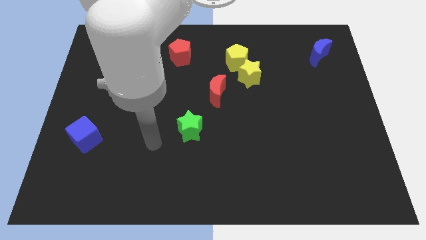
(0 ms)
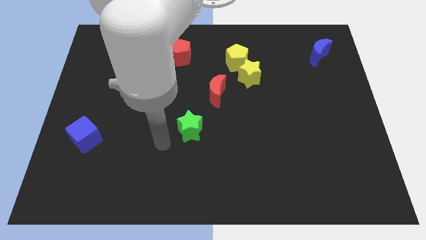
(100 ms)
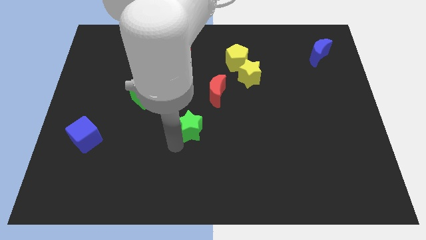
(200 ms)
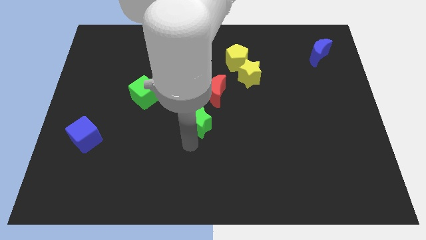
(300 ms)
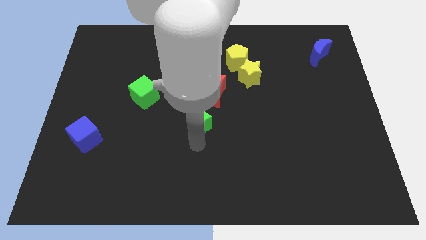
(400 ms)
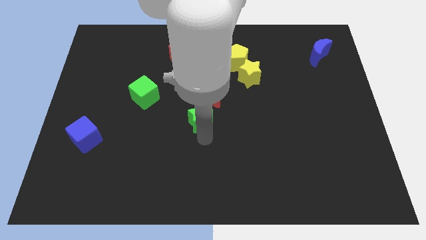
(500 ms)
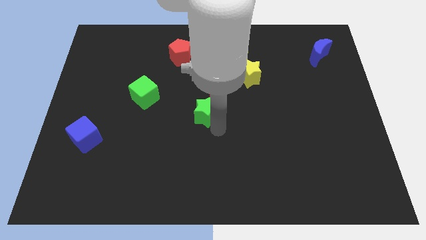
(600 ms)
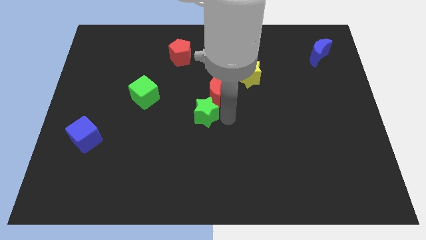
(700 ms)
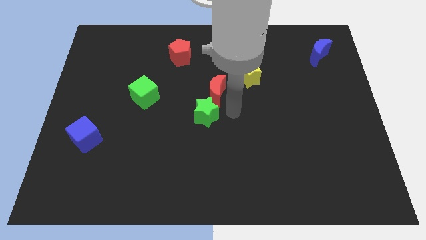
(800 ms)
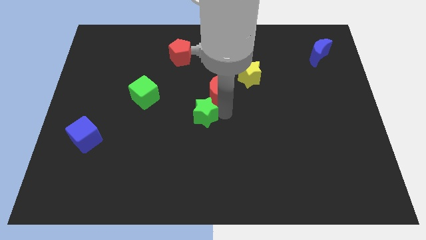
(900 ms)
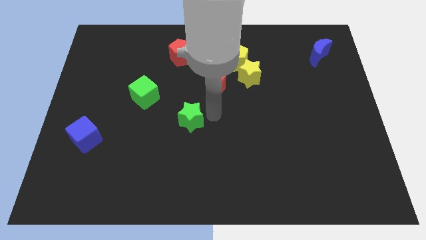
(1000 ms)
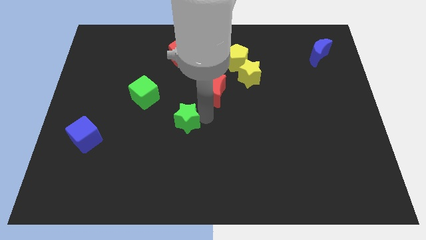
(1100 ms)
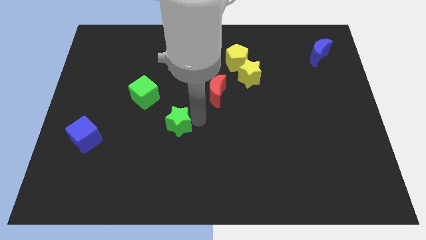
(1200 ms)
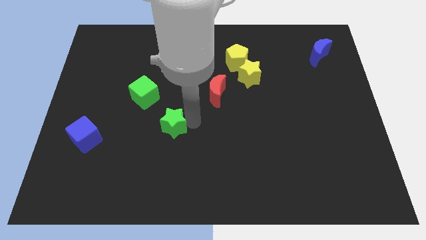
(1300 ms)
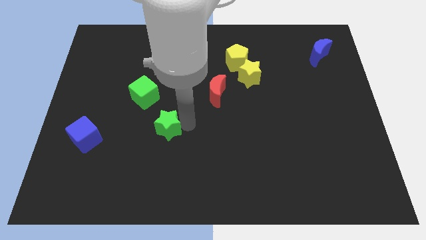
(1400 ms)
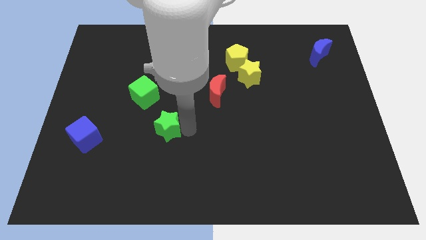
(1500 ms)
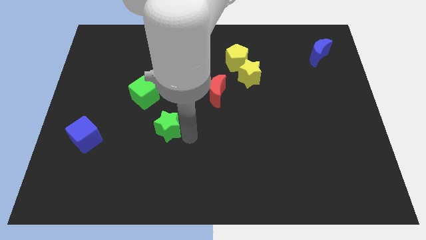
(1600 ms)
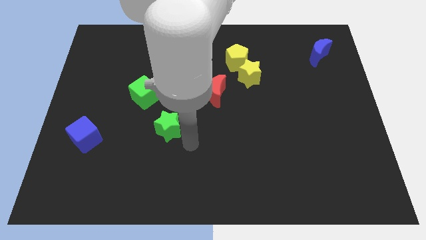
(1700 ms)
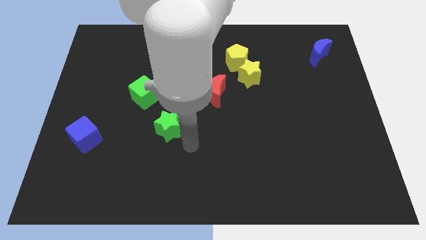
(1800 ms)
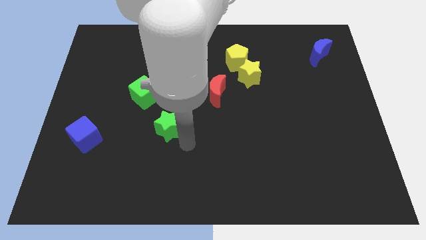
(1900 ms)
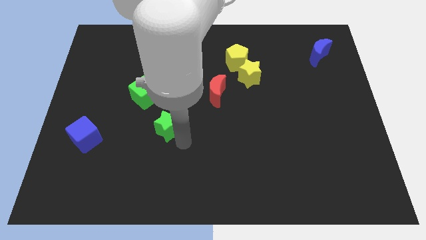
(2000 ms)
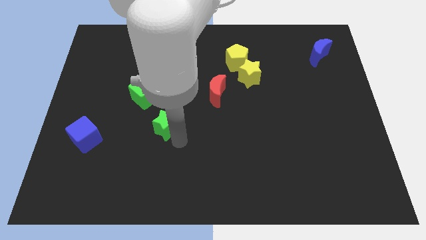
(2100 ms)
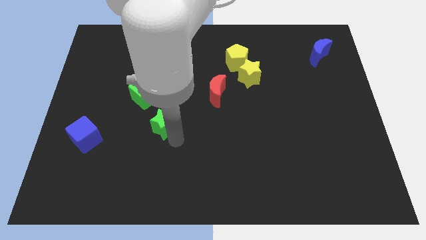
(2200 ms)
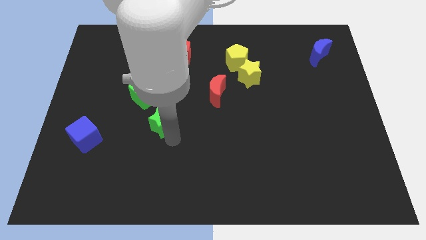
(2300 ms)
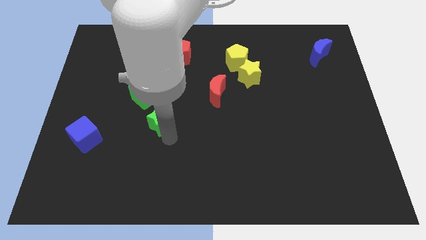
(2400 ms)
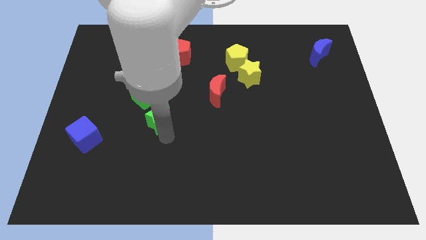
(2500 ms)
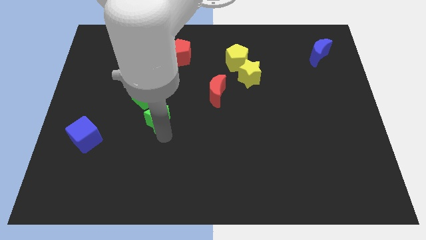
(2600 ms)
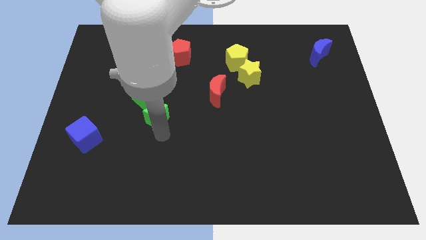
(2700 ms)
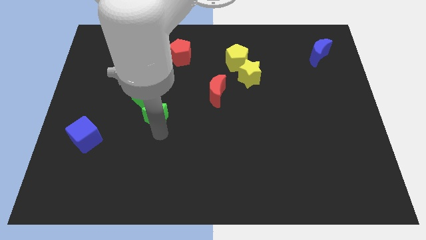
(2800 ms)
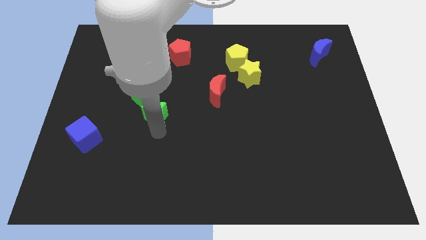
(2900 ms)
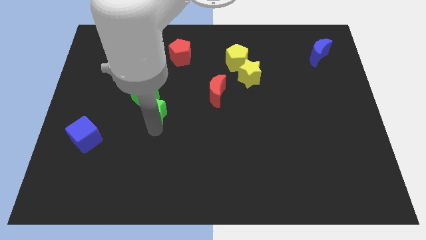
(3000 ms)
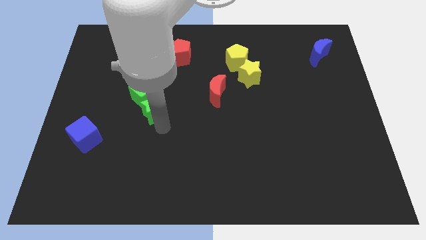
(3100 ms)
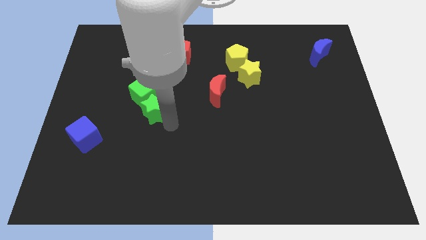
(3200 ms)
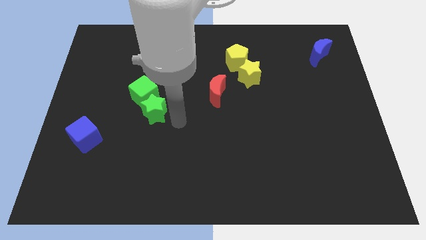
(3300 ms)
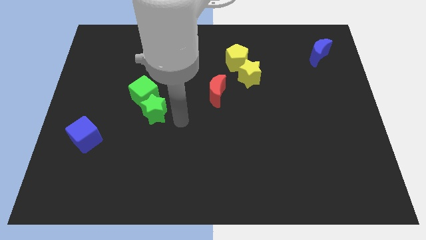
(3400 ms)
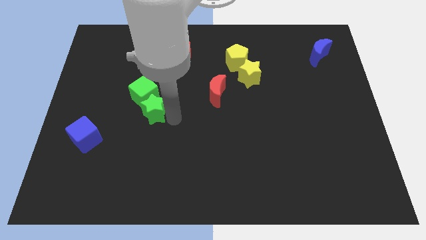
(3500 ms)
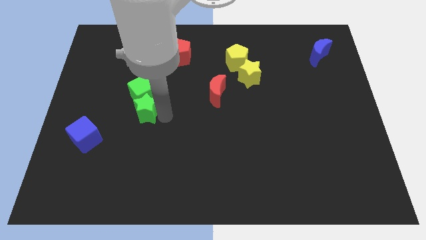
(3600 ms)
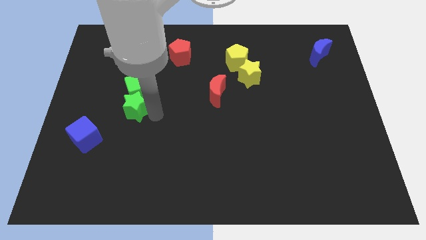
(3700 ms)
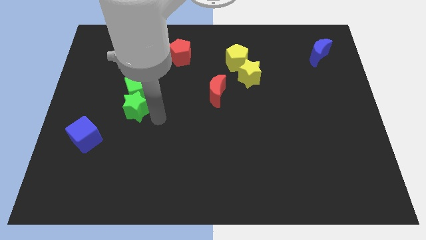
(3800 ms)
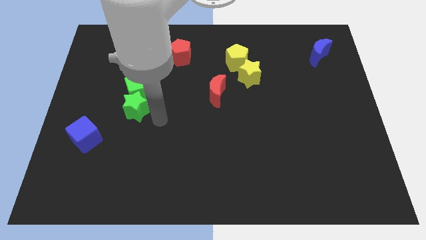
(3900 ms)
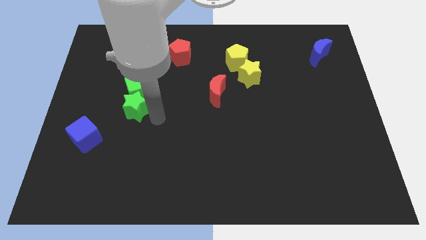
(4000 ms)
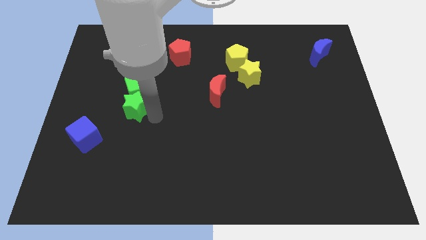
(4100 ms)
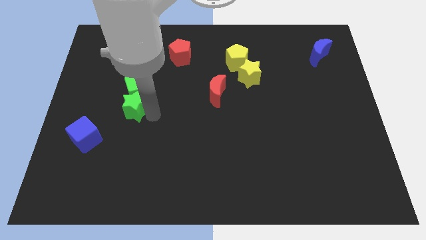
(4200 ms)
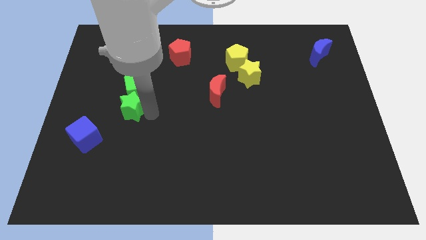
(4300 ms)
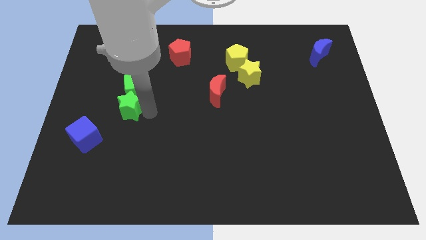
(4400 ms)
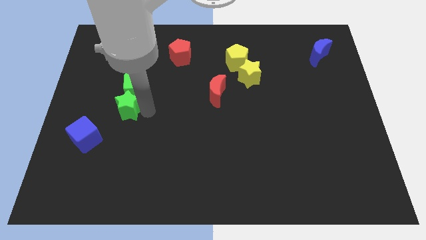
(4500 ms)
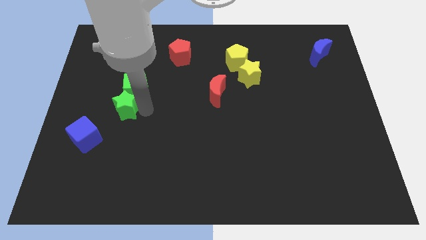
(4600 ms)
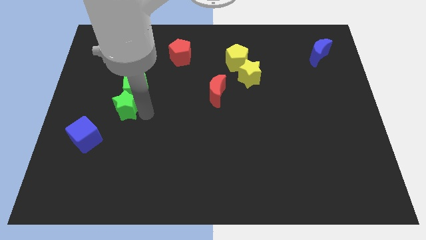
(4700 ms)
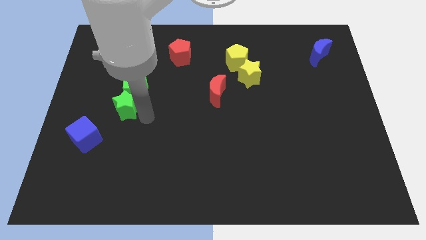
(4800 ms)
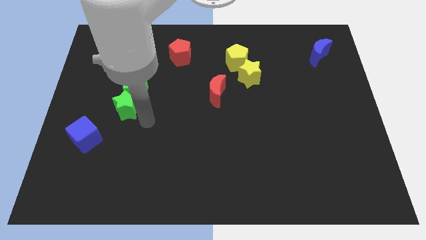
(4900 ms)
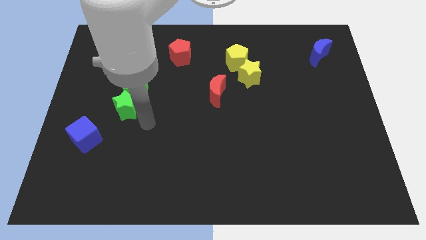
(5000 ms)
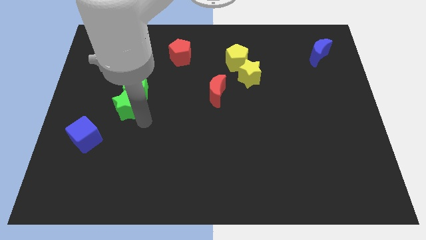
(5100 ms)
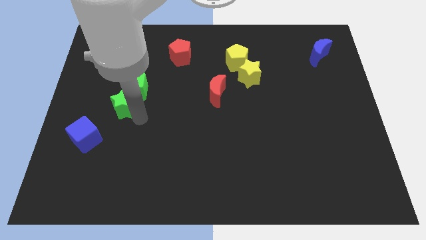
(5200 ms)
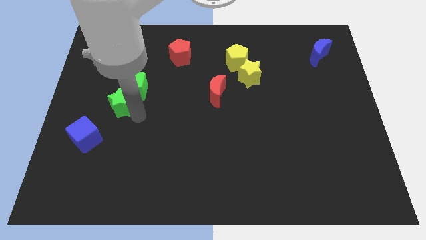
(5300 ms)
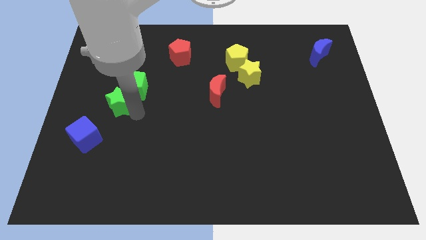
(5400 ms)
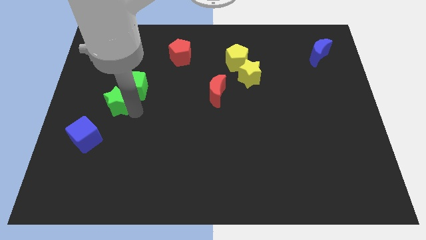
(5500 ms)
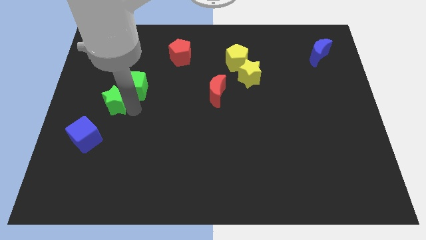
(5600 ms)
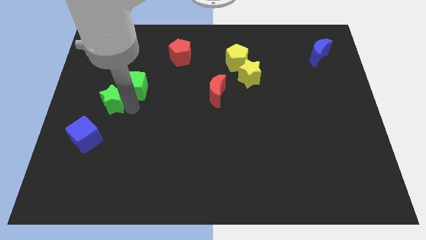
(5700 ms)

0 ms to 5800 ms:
move the green star to the top of the blue cube

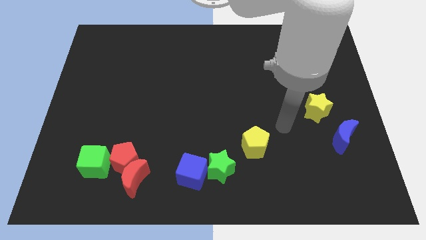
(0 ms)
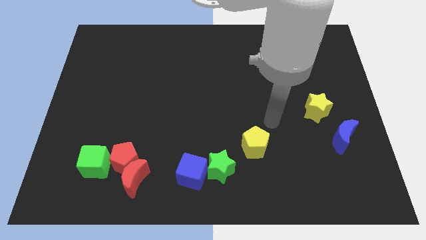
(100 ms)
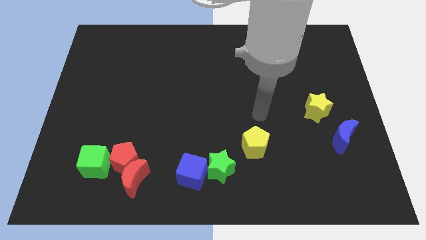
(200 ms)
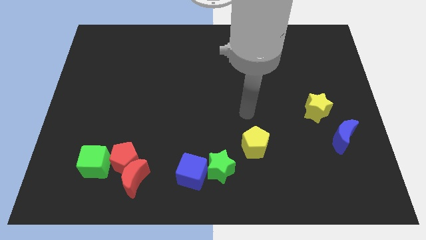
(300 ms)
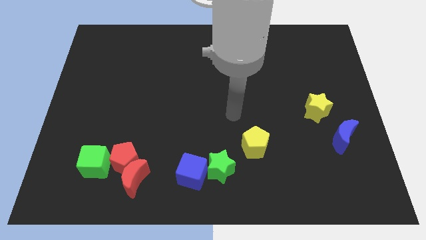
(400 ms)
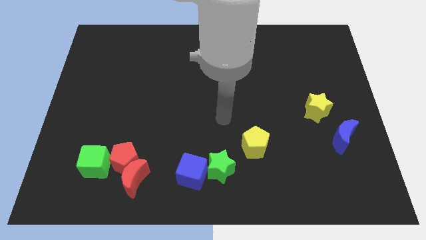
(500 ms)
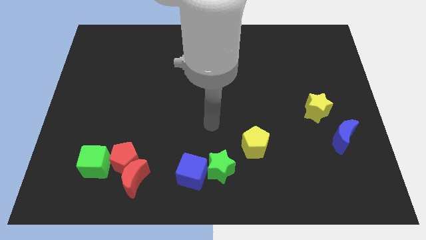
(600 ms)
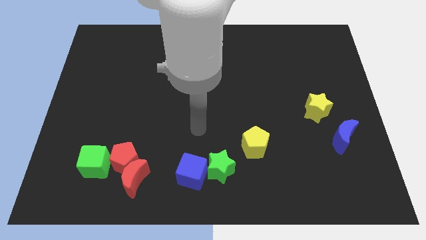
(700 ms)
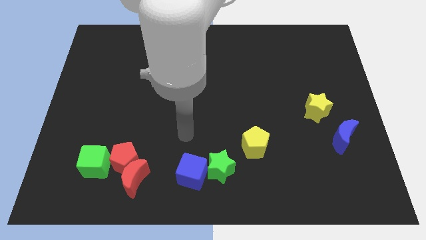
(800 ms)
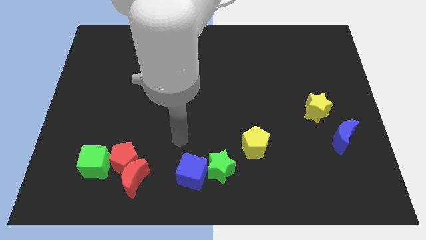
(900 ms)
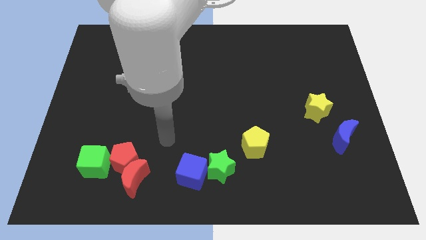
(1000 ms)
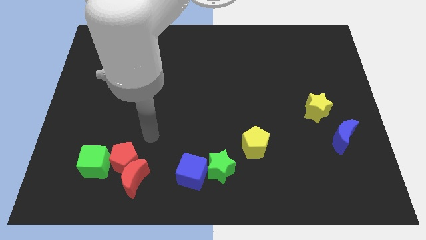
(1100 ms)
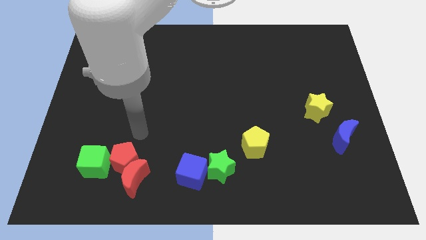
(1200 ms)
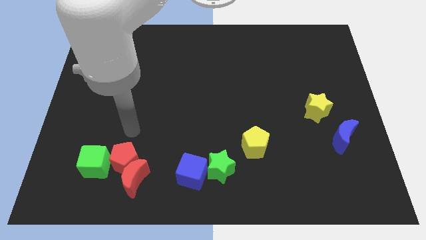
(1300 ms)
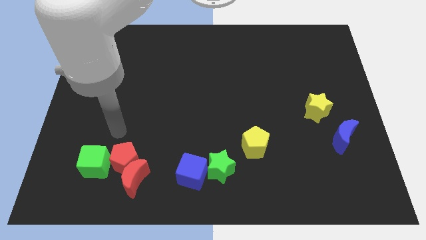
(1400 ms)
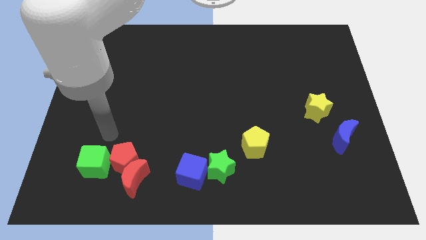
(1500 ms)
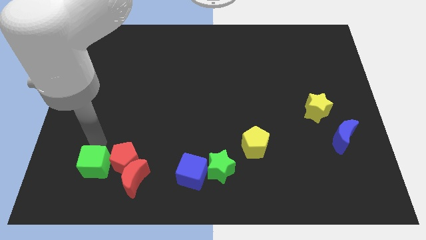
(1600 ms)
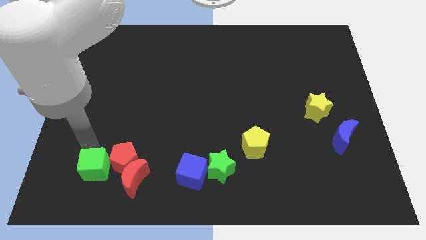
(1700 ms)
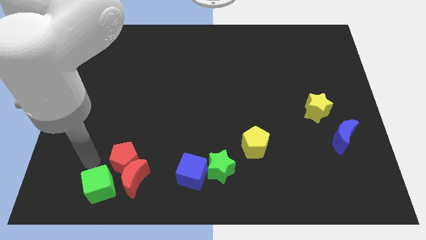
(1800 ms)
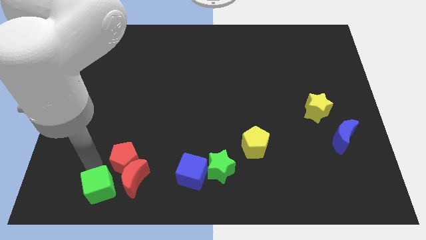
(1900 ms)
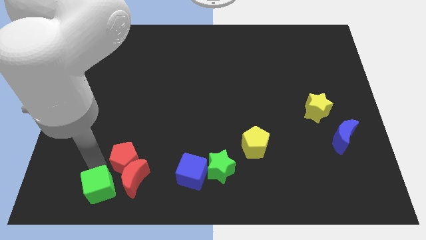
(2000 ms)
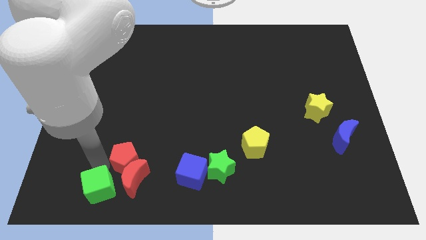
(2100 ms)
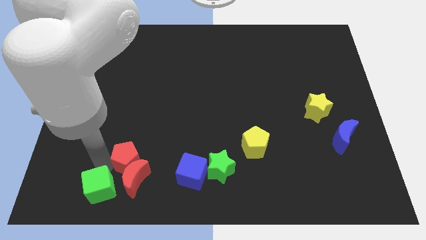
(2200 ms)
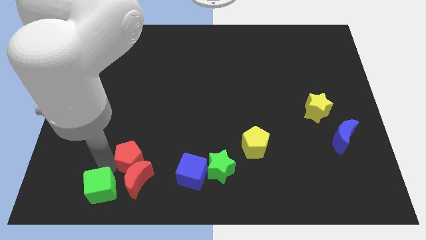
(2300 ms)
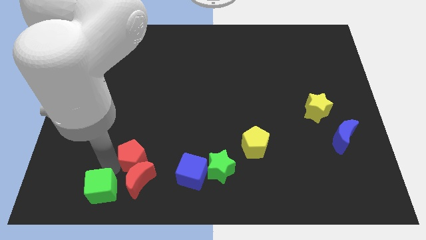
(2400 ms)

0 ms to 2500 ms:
move the red pentagon diagonally up and to the right of the red moon
